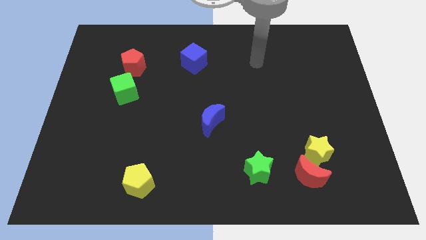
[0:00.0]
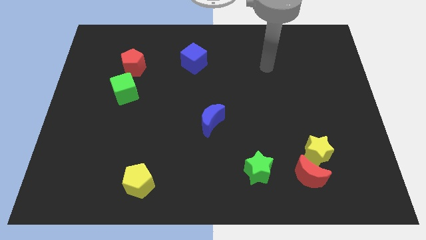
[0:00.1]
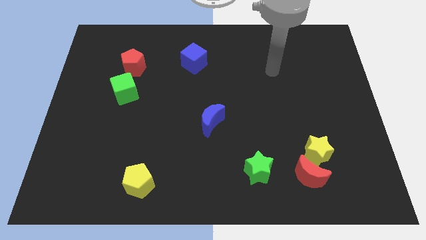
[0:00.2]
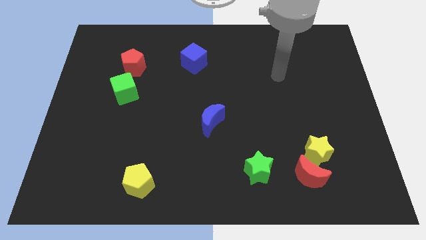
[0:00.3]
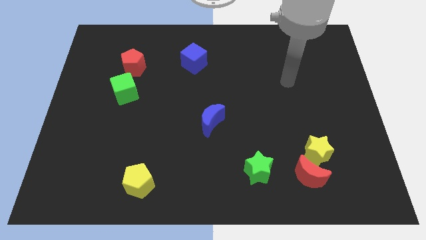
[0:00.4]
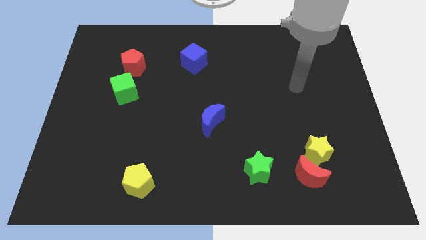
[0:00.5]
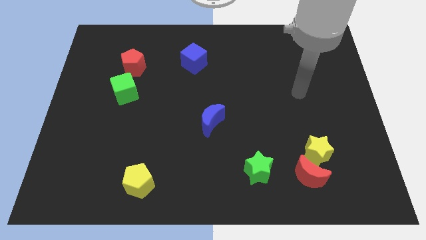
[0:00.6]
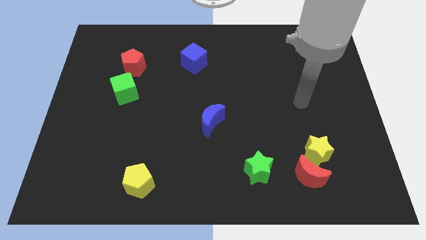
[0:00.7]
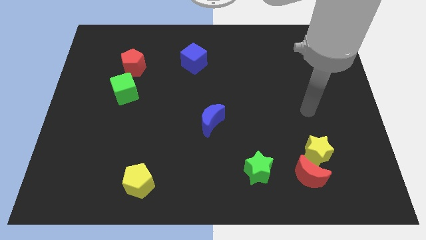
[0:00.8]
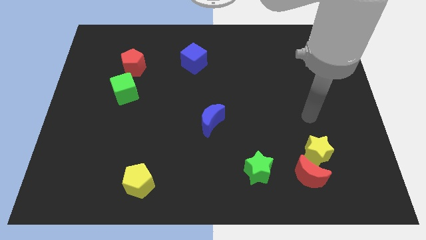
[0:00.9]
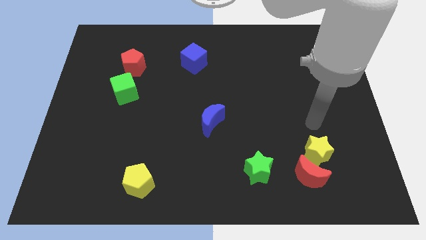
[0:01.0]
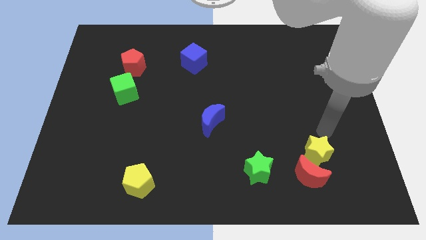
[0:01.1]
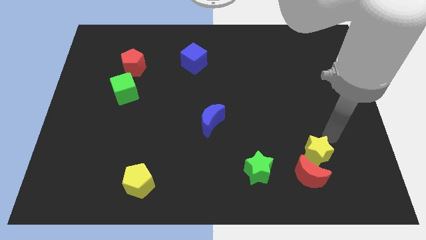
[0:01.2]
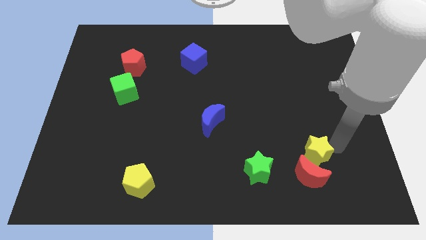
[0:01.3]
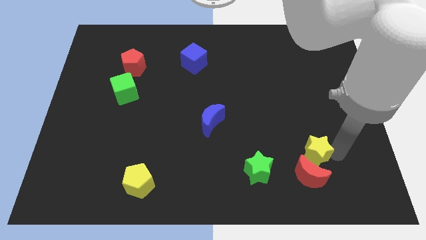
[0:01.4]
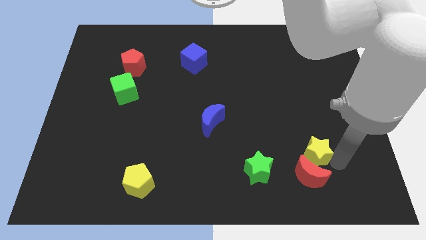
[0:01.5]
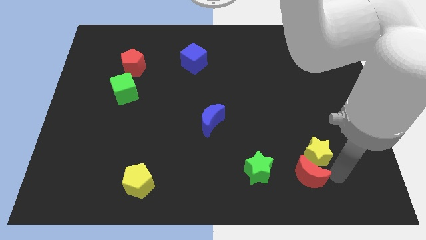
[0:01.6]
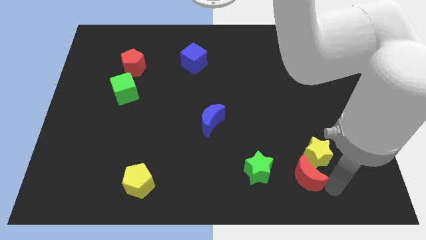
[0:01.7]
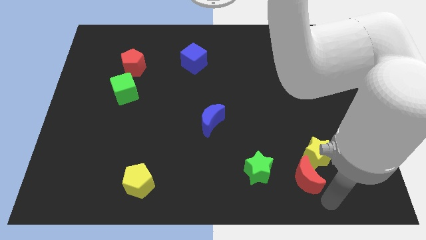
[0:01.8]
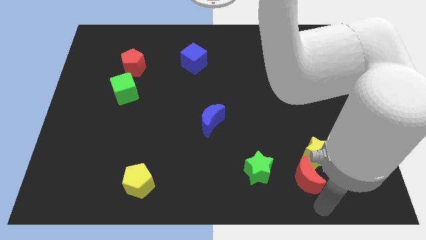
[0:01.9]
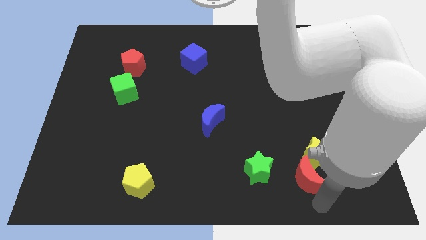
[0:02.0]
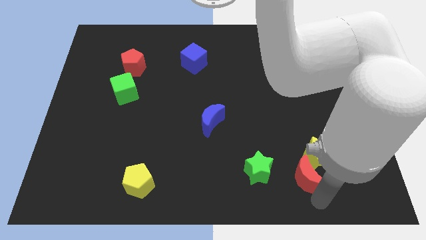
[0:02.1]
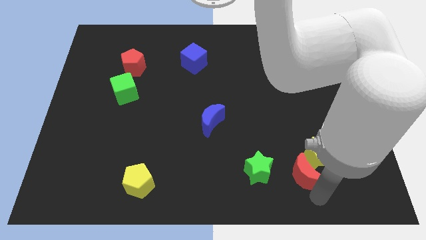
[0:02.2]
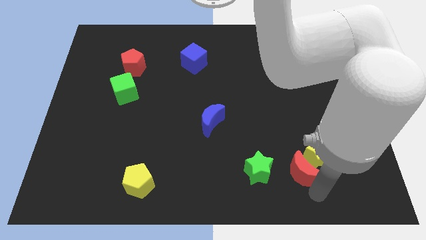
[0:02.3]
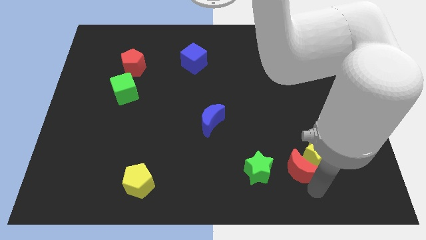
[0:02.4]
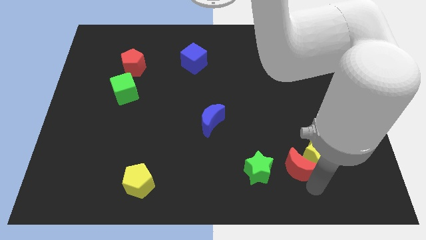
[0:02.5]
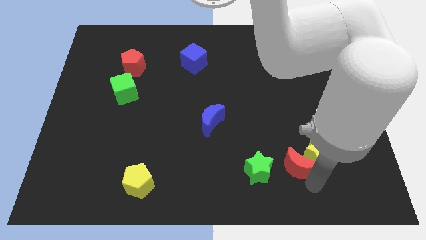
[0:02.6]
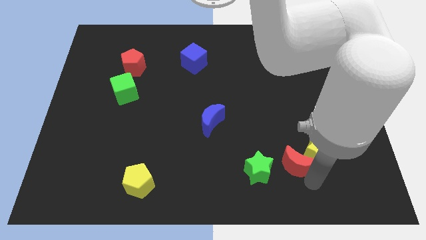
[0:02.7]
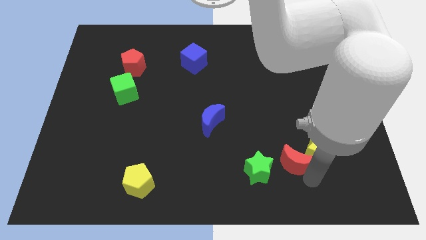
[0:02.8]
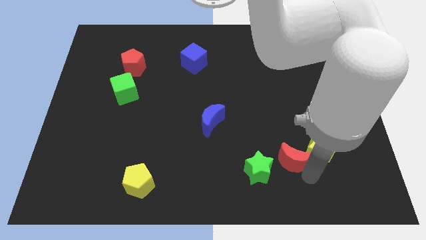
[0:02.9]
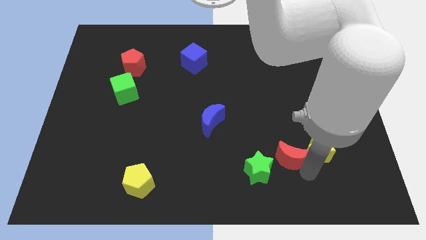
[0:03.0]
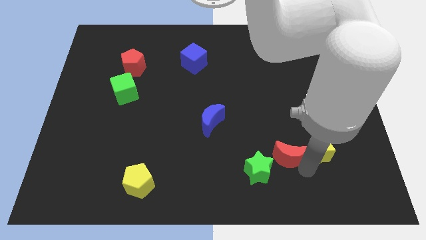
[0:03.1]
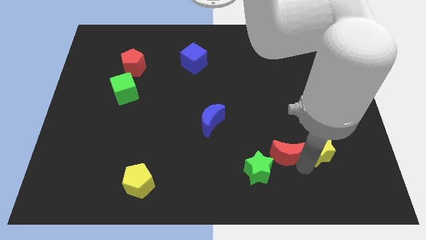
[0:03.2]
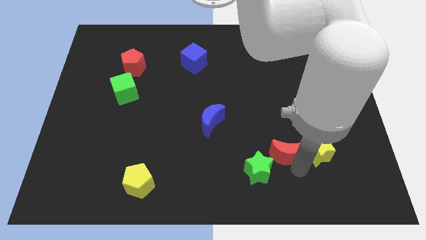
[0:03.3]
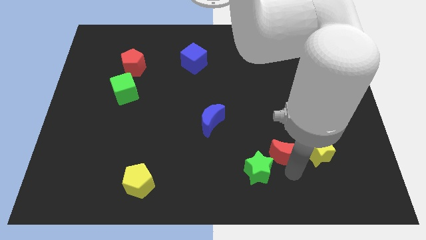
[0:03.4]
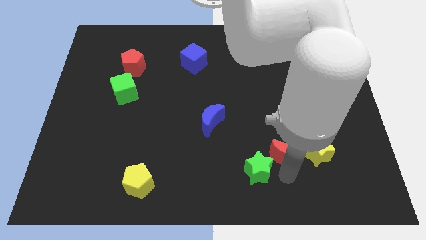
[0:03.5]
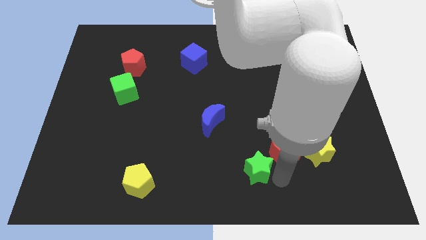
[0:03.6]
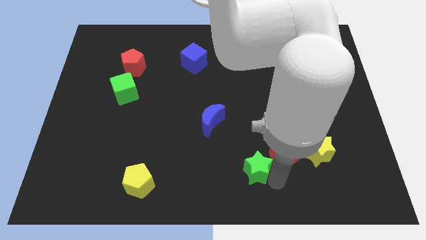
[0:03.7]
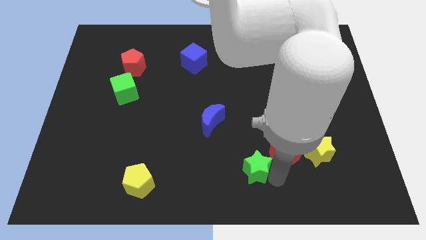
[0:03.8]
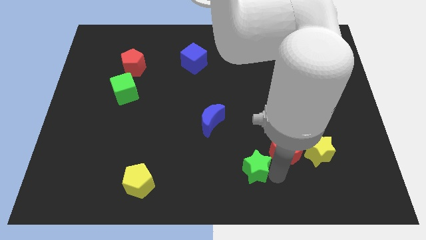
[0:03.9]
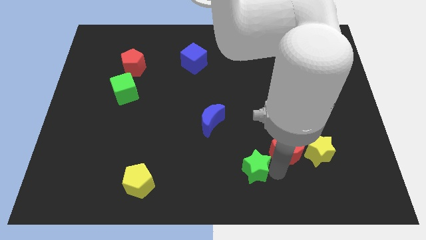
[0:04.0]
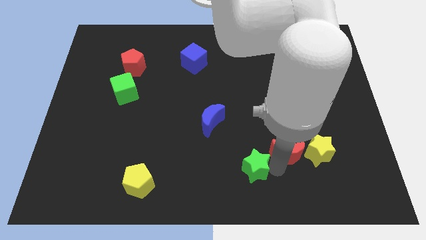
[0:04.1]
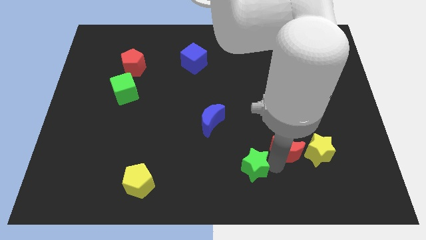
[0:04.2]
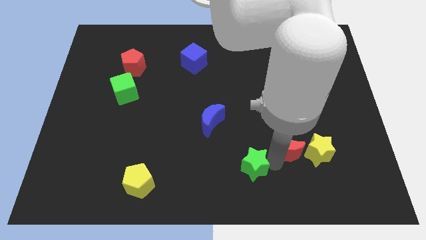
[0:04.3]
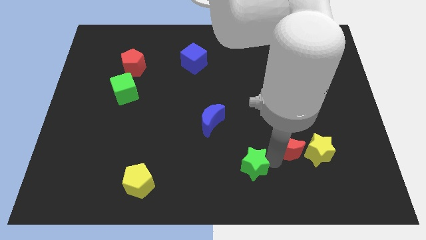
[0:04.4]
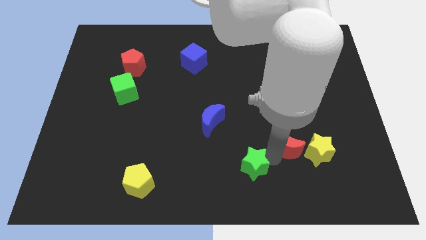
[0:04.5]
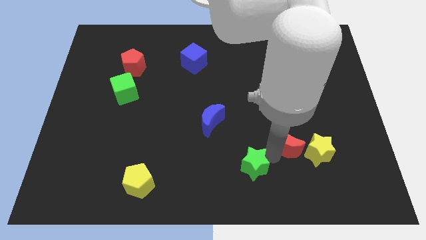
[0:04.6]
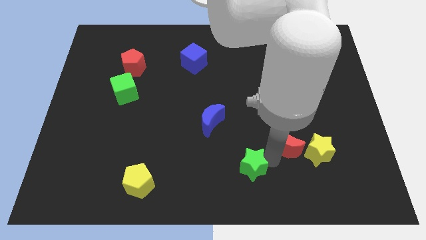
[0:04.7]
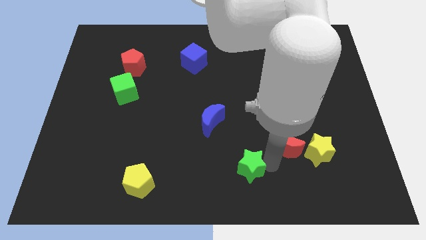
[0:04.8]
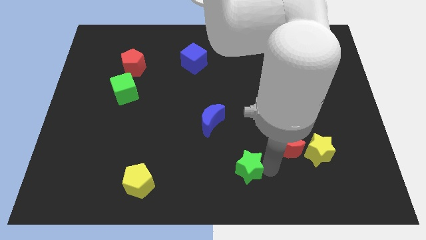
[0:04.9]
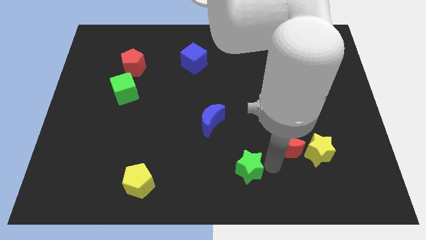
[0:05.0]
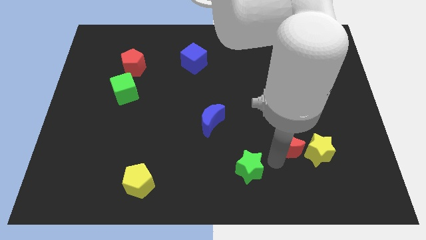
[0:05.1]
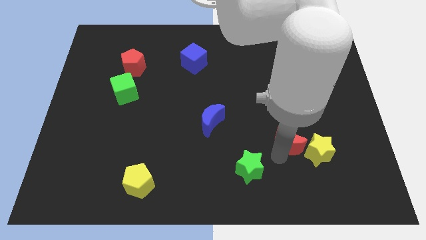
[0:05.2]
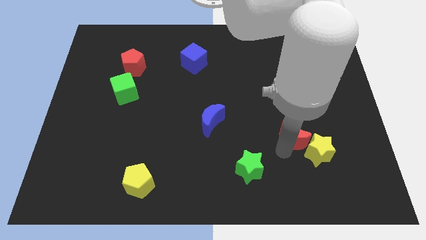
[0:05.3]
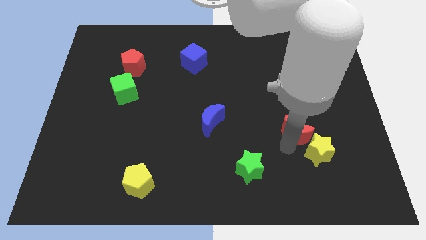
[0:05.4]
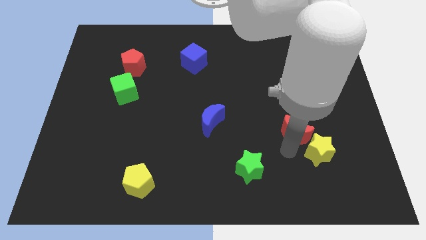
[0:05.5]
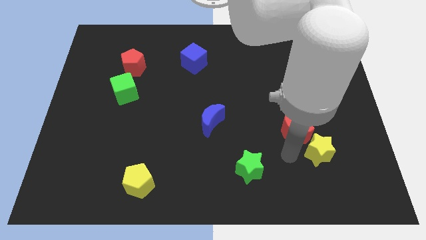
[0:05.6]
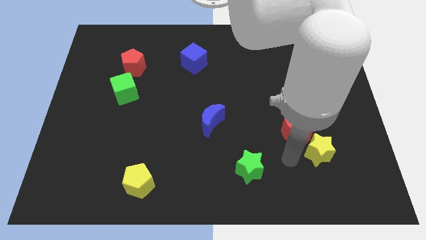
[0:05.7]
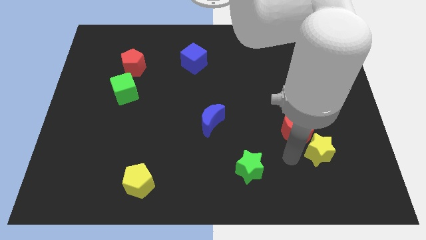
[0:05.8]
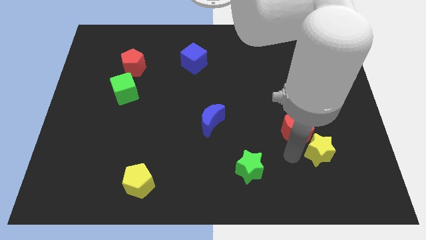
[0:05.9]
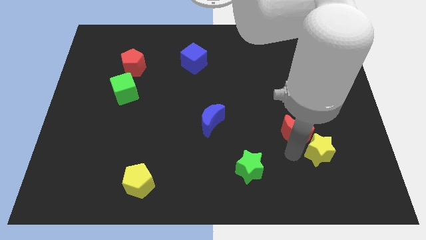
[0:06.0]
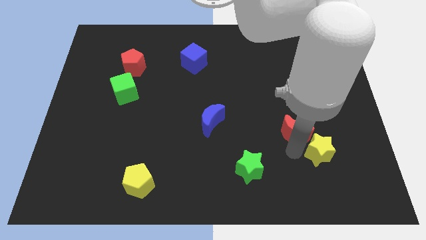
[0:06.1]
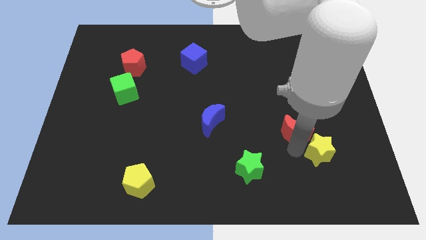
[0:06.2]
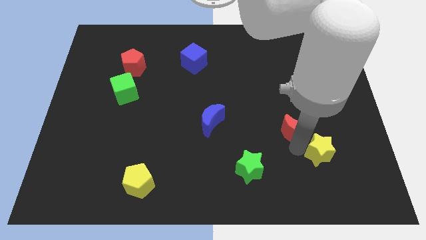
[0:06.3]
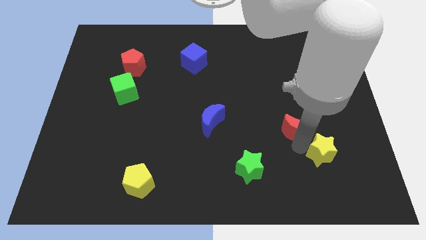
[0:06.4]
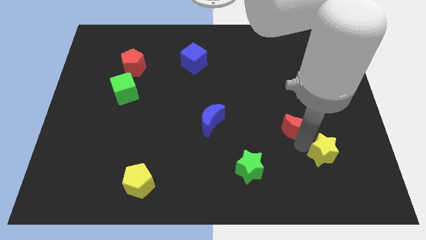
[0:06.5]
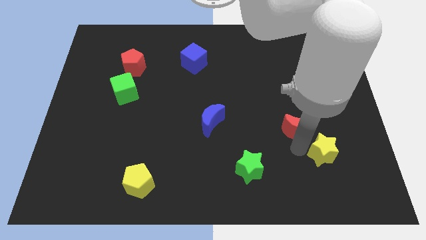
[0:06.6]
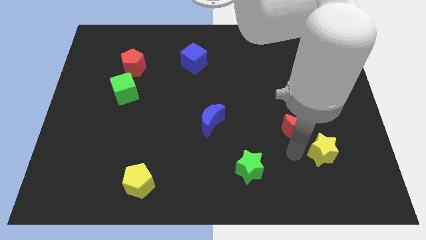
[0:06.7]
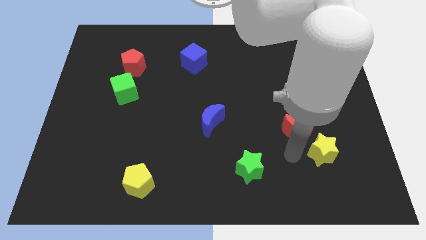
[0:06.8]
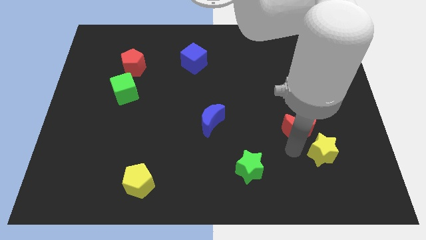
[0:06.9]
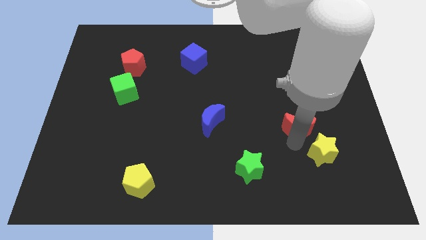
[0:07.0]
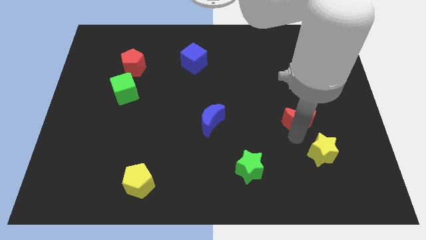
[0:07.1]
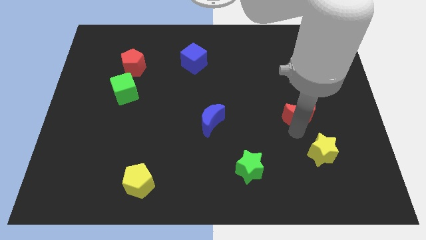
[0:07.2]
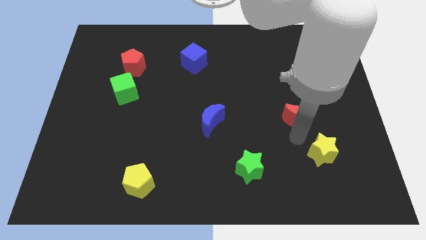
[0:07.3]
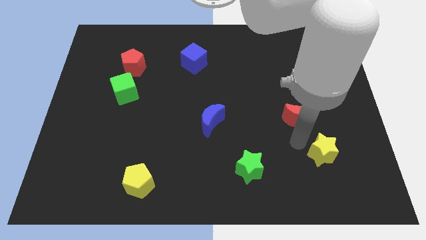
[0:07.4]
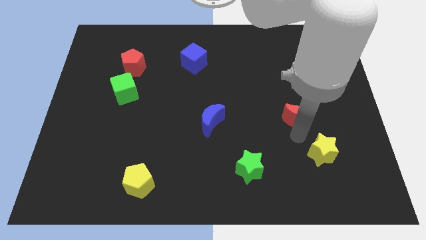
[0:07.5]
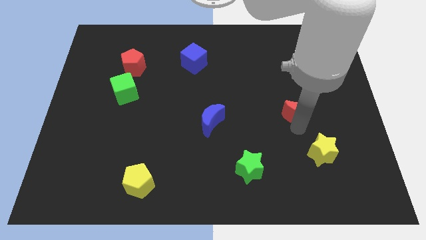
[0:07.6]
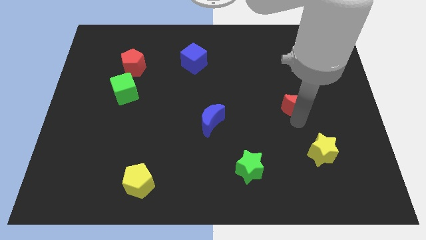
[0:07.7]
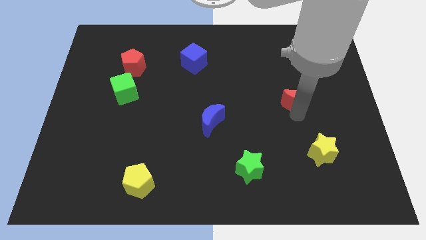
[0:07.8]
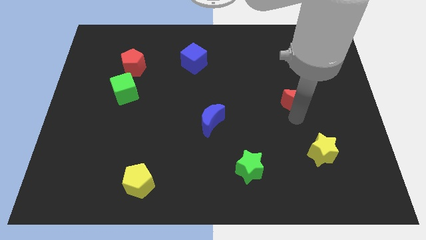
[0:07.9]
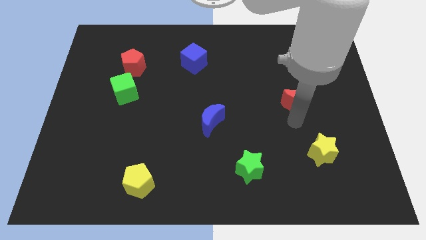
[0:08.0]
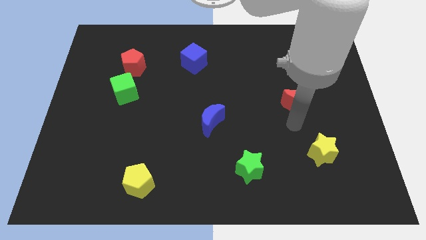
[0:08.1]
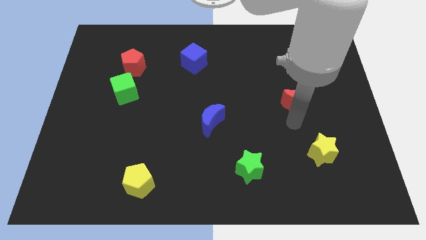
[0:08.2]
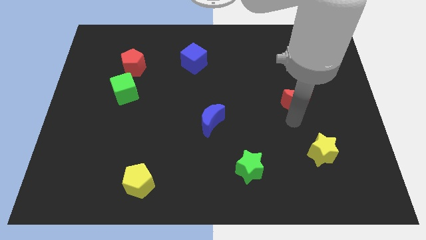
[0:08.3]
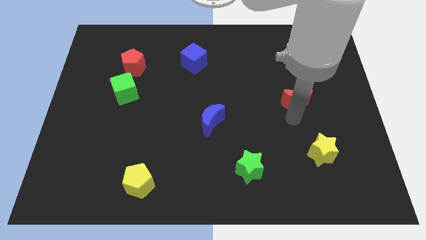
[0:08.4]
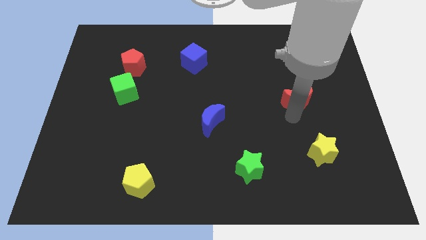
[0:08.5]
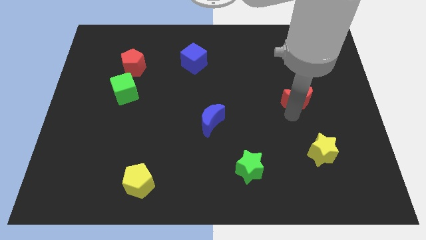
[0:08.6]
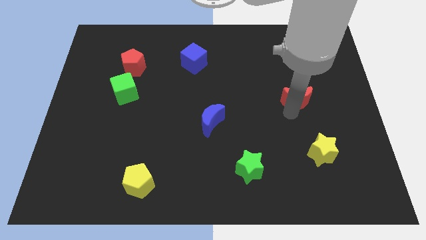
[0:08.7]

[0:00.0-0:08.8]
slide the red moon up
